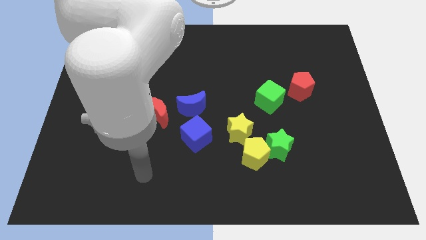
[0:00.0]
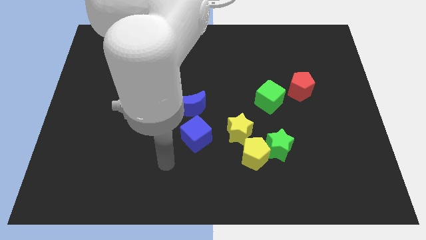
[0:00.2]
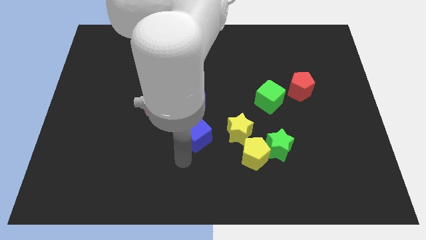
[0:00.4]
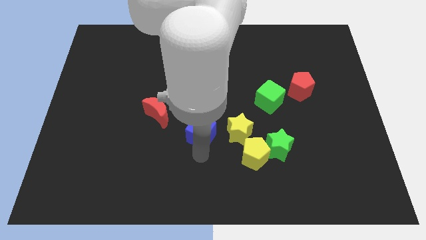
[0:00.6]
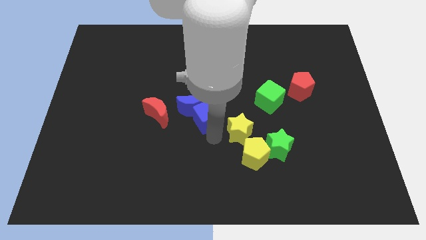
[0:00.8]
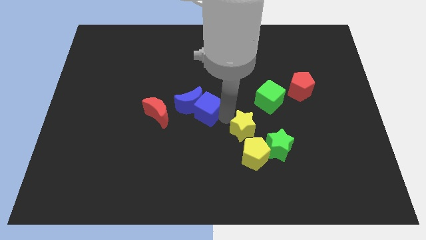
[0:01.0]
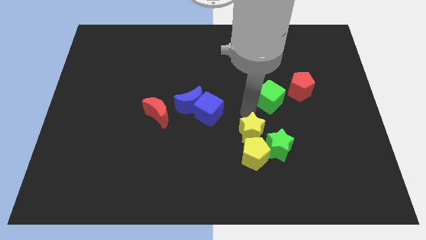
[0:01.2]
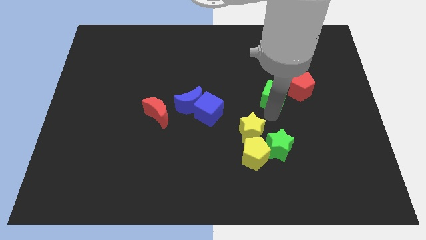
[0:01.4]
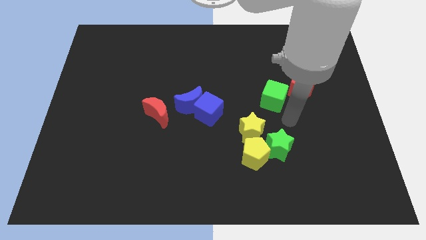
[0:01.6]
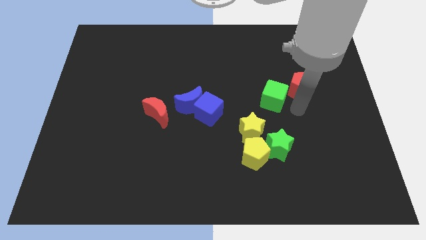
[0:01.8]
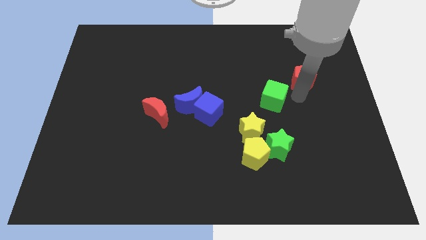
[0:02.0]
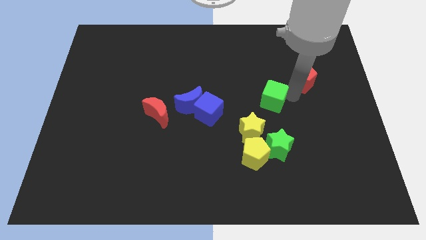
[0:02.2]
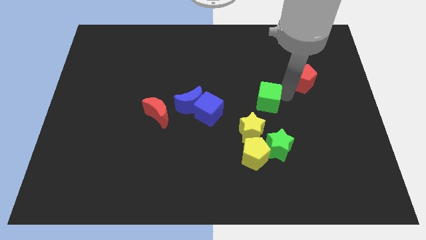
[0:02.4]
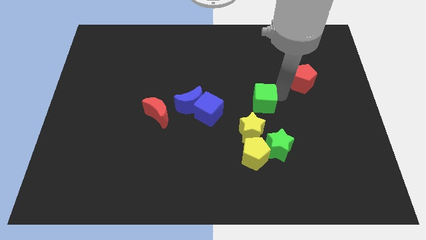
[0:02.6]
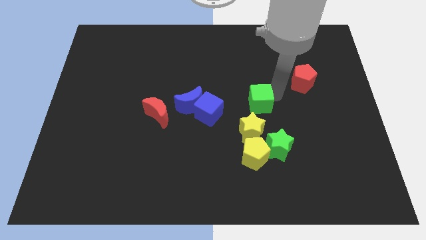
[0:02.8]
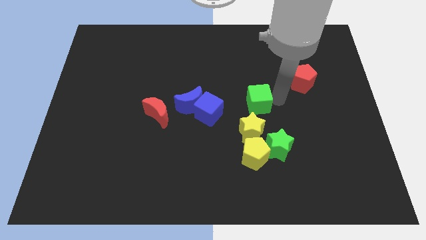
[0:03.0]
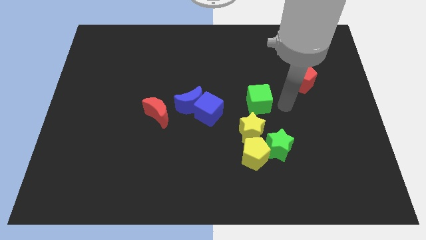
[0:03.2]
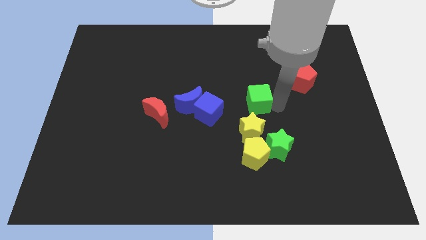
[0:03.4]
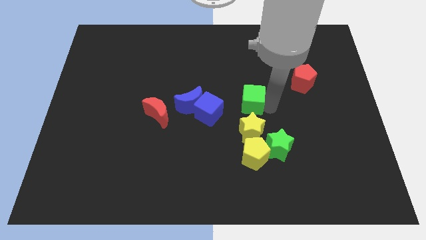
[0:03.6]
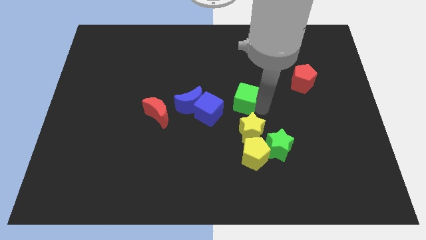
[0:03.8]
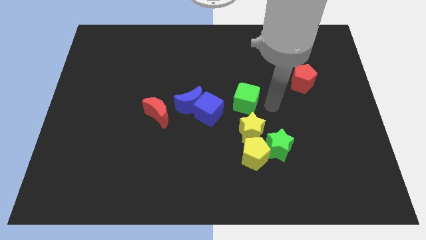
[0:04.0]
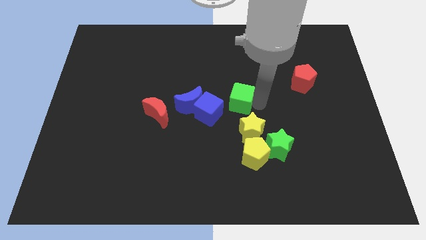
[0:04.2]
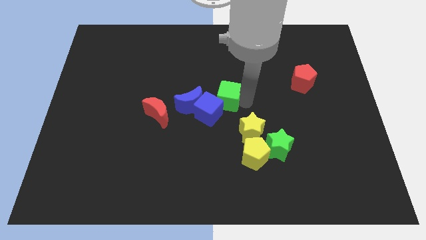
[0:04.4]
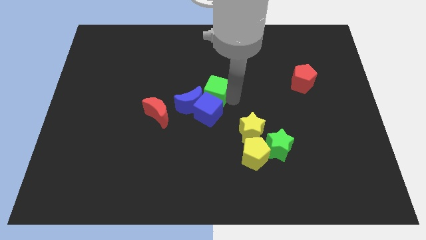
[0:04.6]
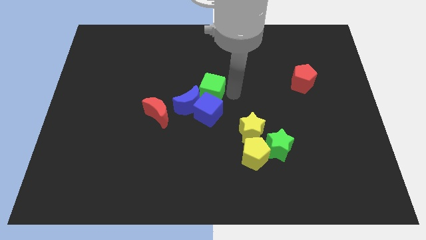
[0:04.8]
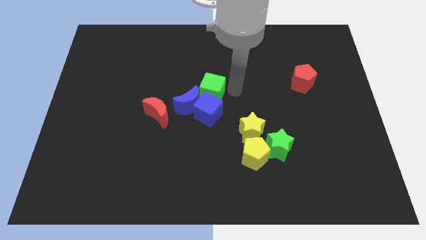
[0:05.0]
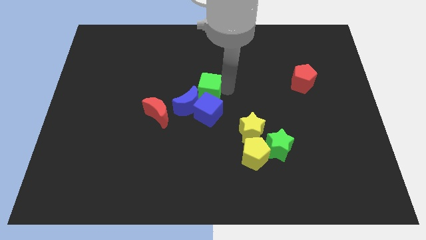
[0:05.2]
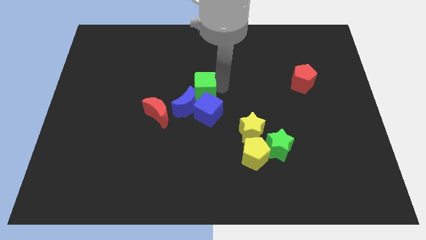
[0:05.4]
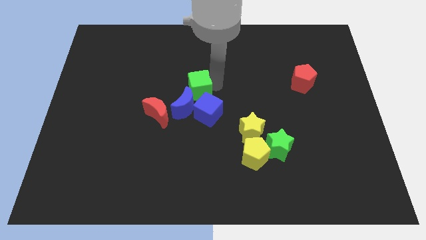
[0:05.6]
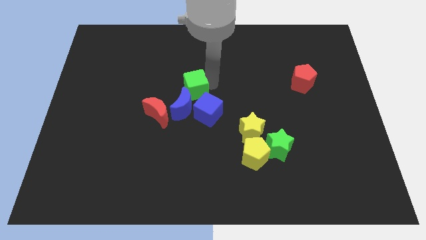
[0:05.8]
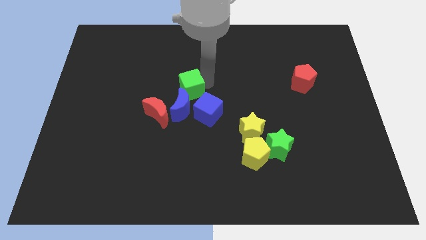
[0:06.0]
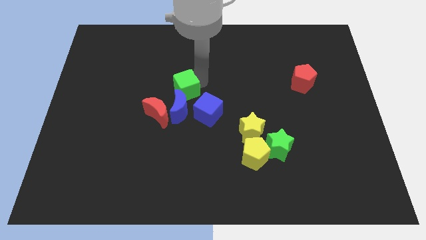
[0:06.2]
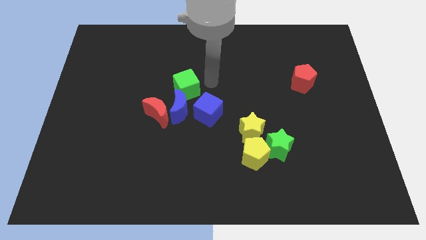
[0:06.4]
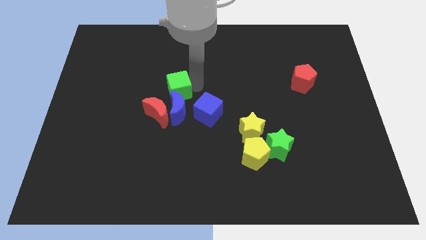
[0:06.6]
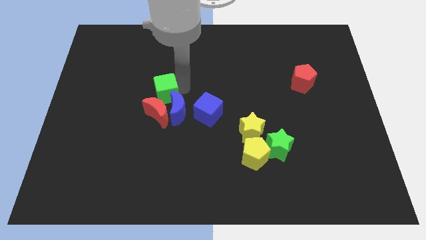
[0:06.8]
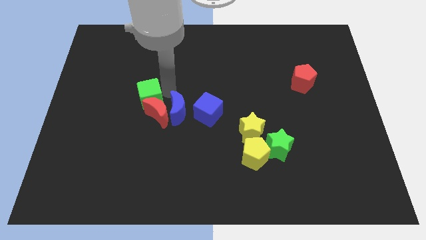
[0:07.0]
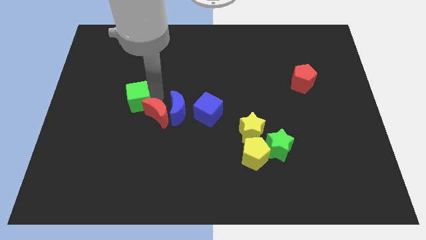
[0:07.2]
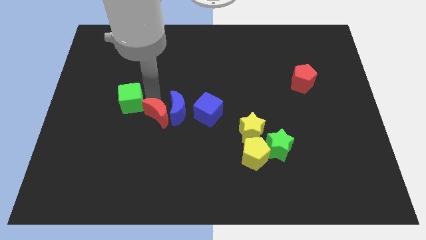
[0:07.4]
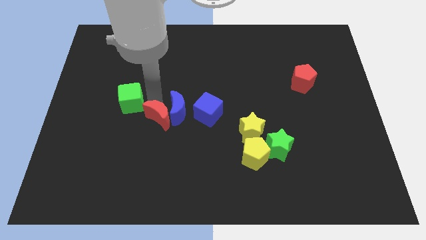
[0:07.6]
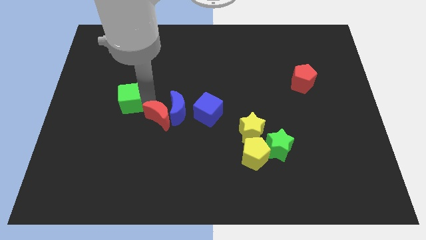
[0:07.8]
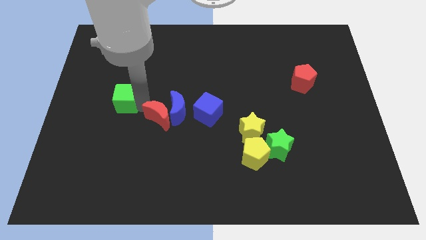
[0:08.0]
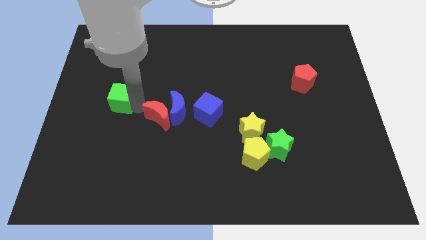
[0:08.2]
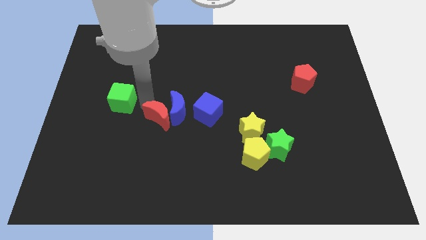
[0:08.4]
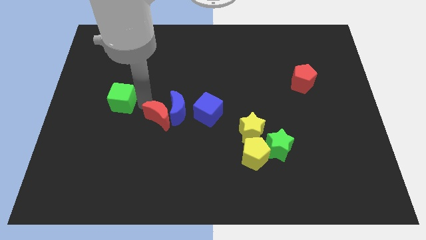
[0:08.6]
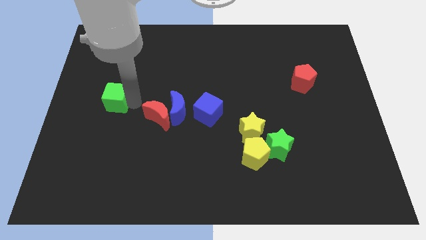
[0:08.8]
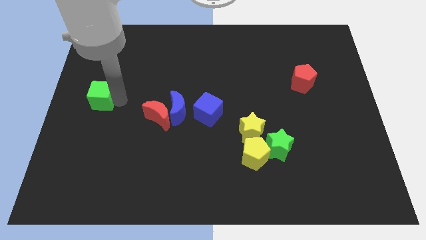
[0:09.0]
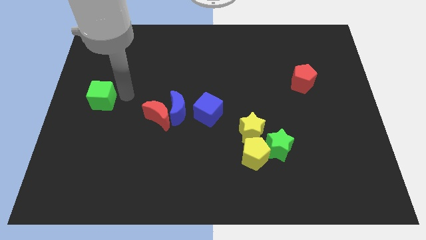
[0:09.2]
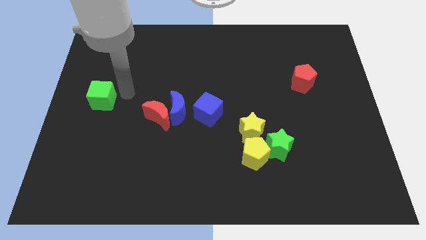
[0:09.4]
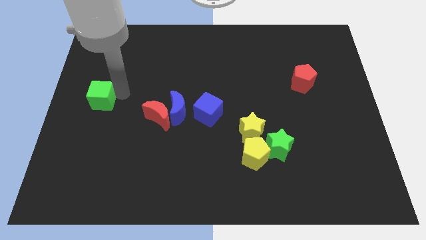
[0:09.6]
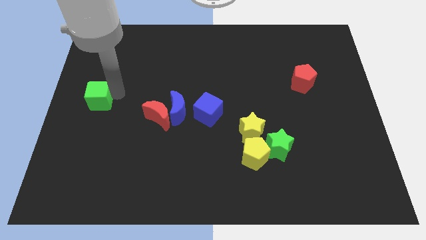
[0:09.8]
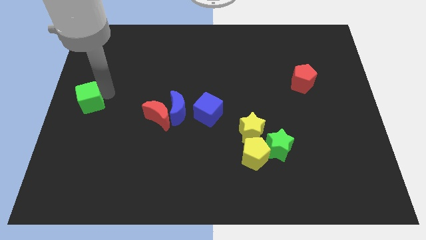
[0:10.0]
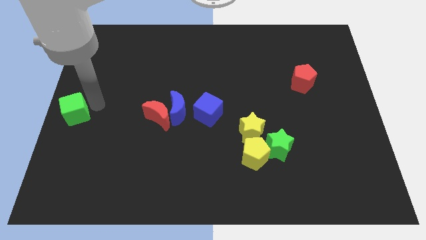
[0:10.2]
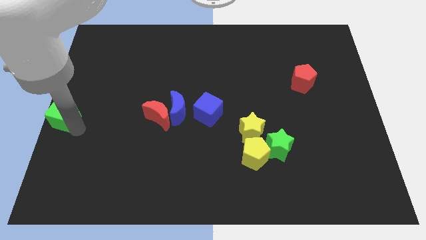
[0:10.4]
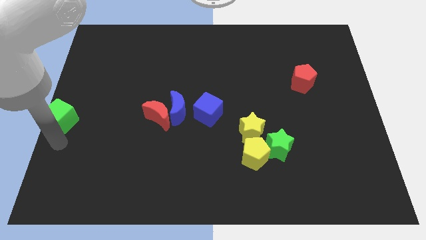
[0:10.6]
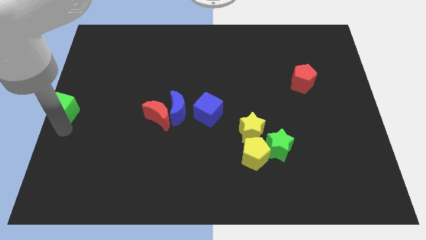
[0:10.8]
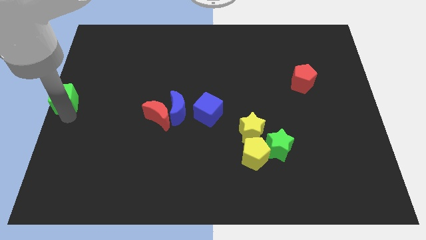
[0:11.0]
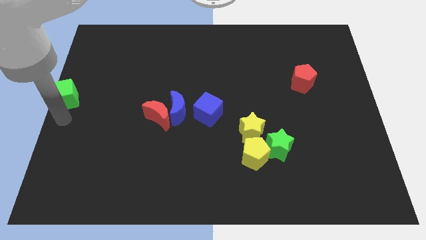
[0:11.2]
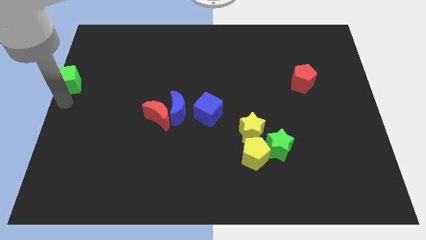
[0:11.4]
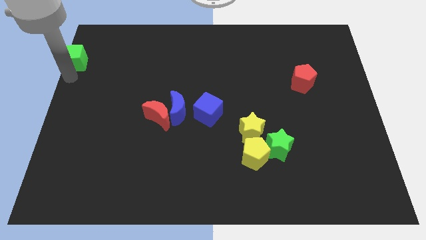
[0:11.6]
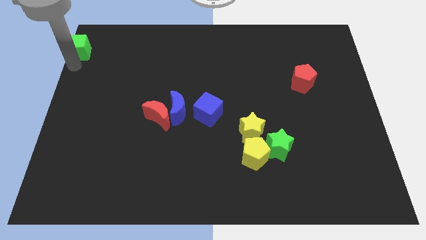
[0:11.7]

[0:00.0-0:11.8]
move the green cube to the top left of the board

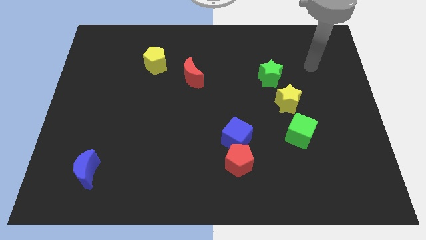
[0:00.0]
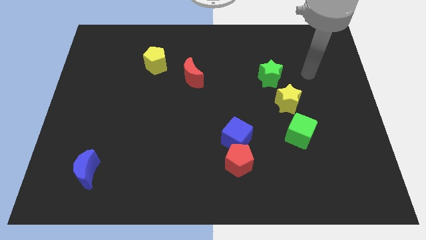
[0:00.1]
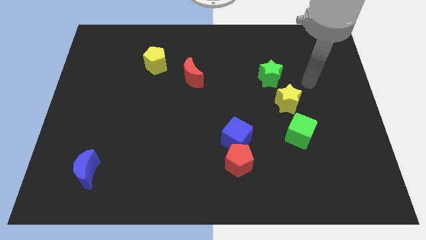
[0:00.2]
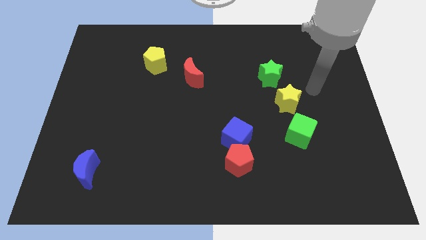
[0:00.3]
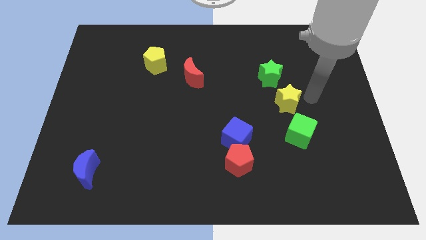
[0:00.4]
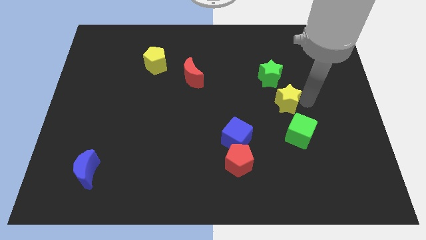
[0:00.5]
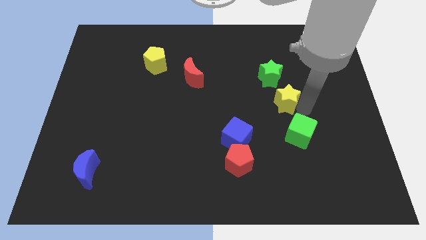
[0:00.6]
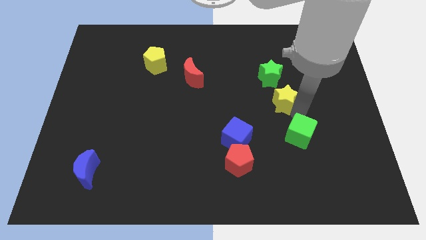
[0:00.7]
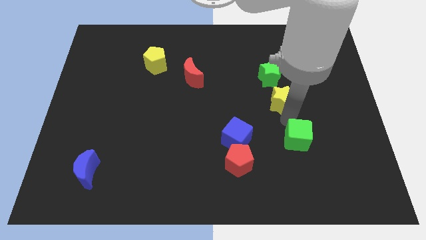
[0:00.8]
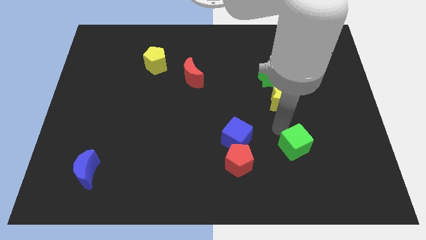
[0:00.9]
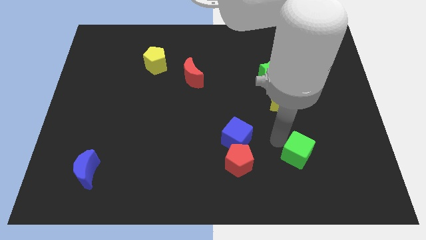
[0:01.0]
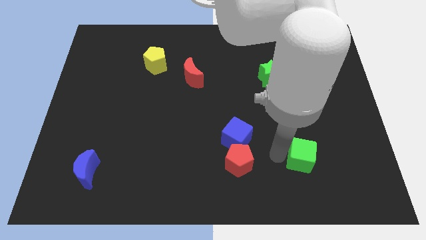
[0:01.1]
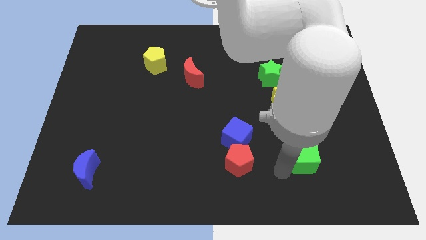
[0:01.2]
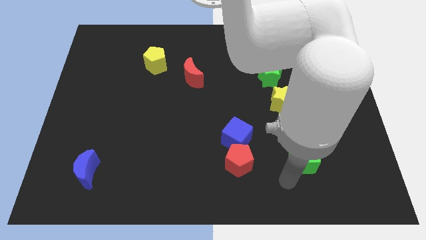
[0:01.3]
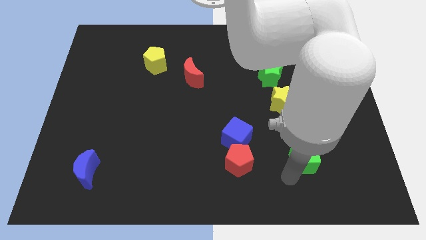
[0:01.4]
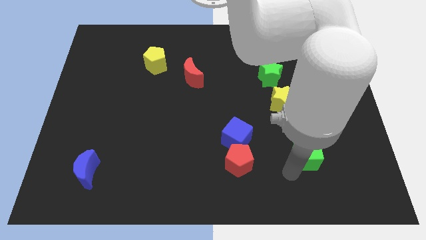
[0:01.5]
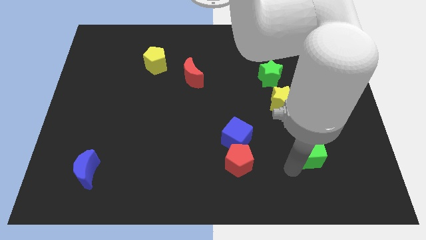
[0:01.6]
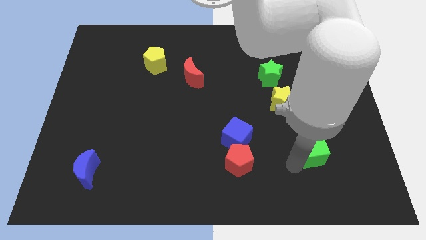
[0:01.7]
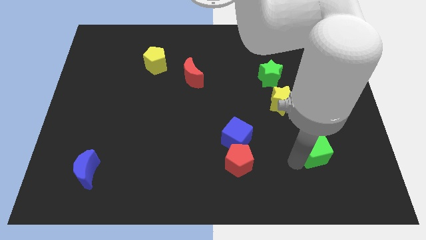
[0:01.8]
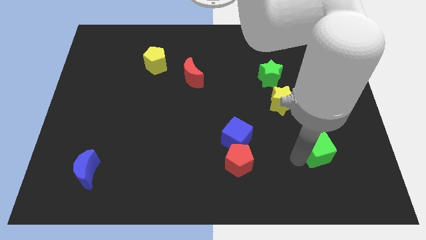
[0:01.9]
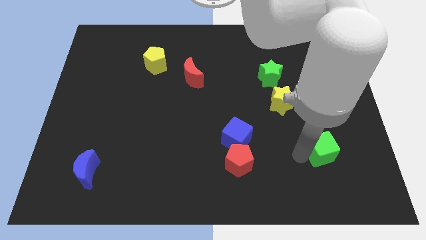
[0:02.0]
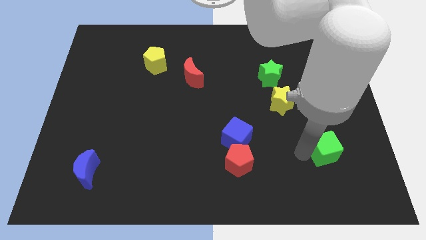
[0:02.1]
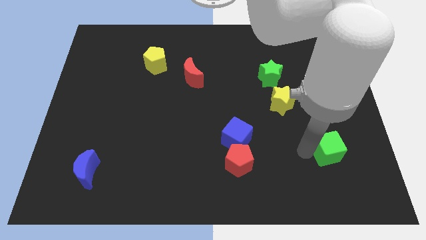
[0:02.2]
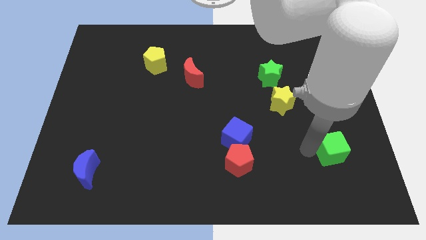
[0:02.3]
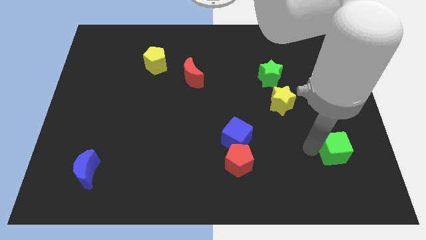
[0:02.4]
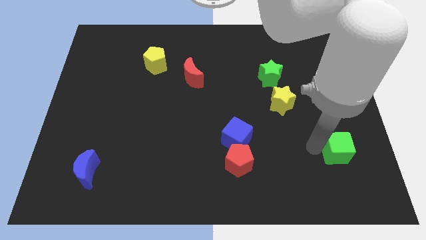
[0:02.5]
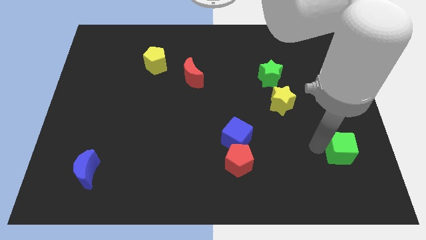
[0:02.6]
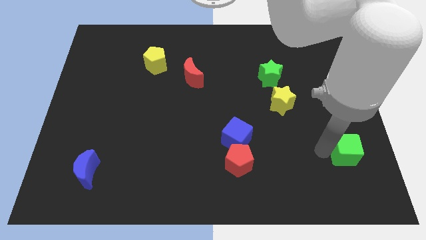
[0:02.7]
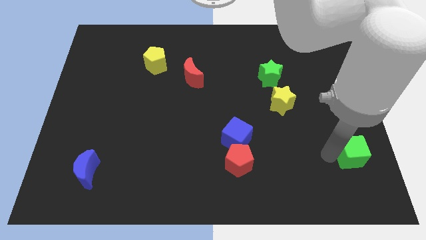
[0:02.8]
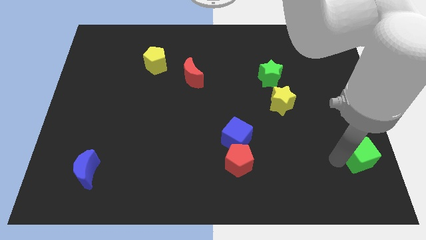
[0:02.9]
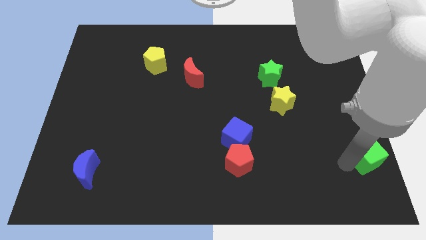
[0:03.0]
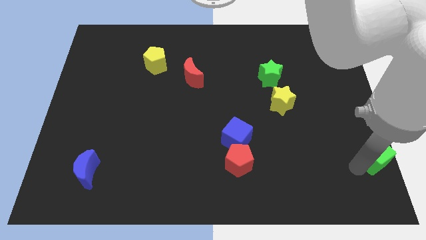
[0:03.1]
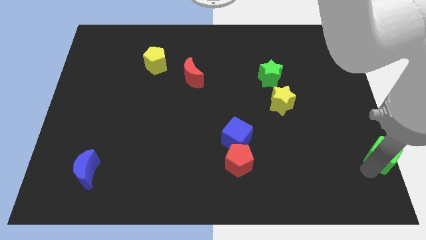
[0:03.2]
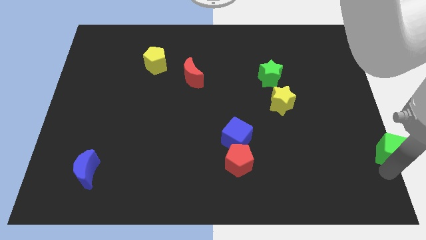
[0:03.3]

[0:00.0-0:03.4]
move the green cube to the right side
